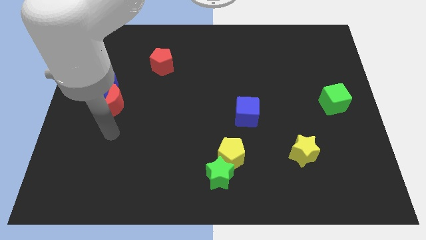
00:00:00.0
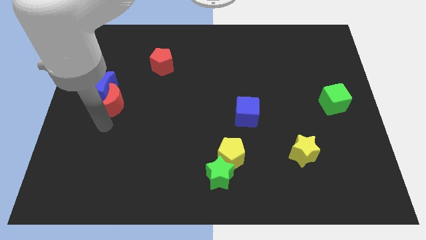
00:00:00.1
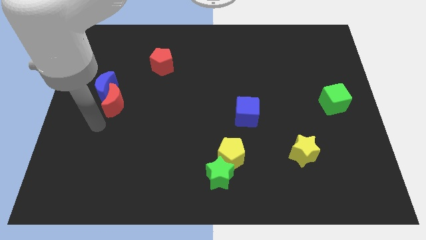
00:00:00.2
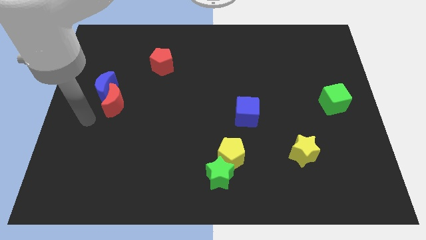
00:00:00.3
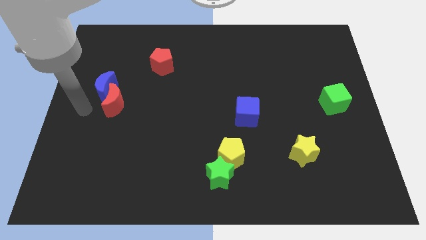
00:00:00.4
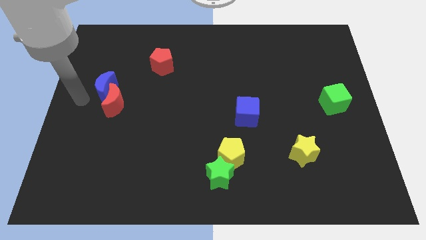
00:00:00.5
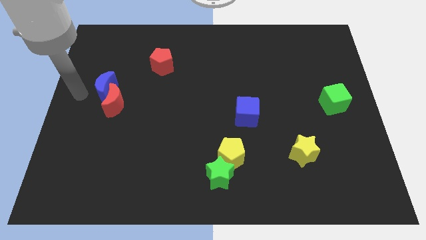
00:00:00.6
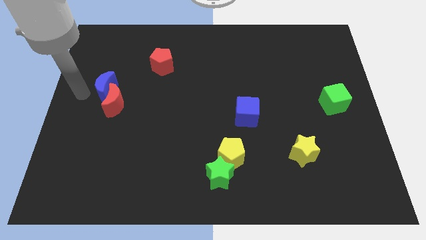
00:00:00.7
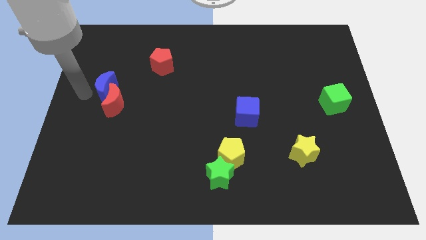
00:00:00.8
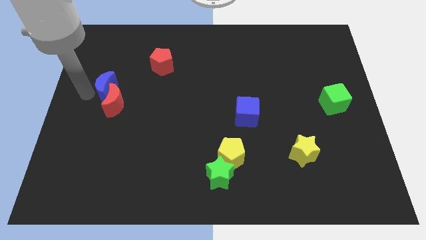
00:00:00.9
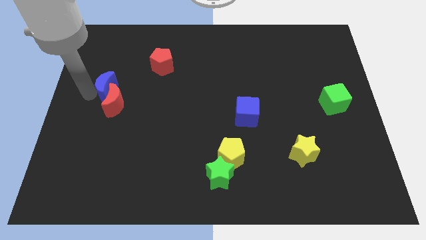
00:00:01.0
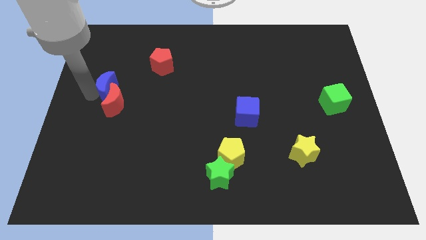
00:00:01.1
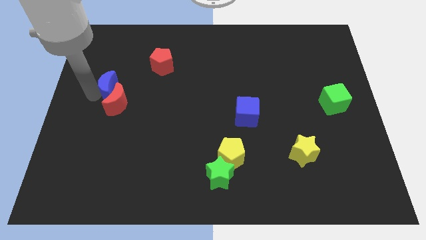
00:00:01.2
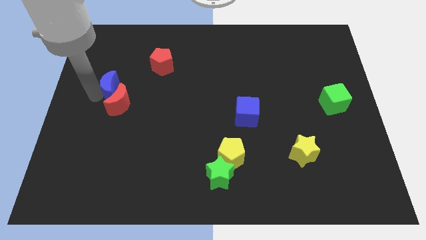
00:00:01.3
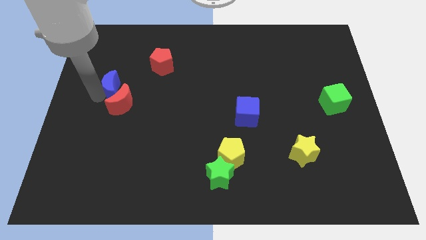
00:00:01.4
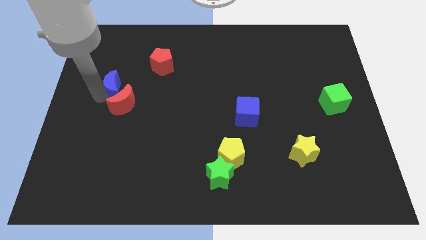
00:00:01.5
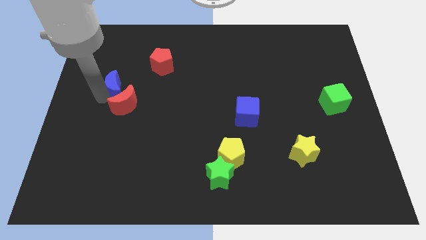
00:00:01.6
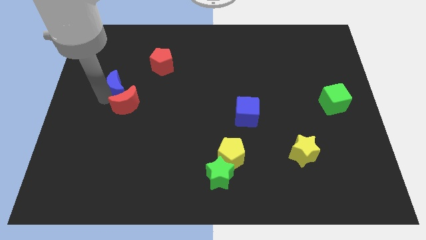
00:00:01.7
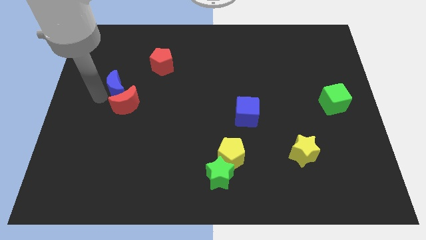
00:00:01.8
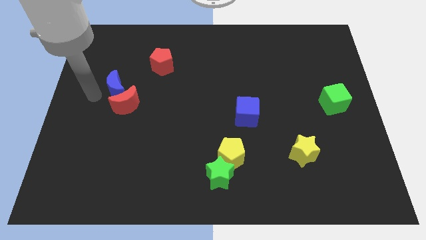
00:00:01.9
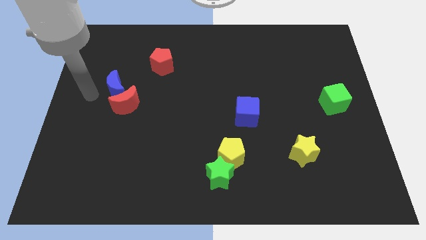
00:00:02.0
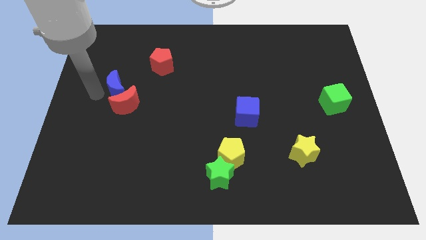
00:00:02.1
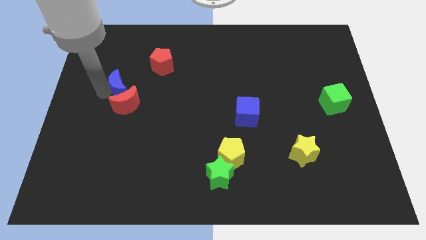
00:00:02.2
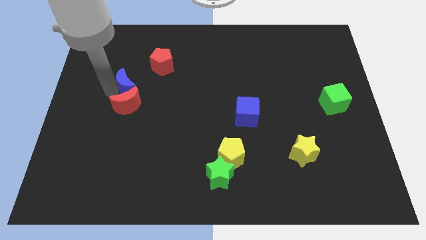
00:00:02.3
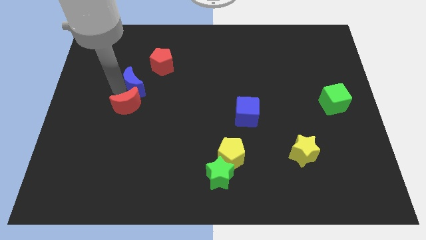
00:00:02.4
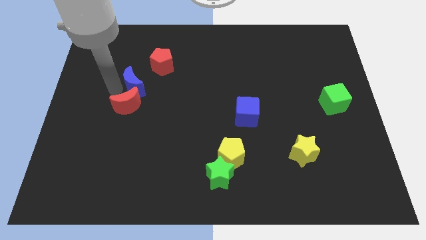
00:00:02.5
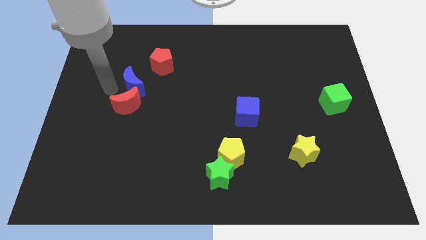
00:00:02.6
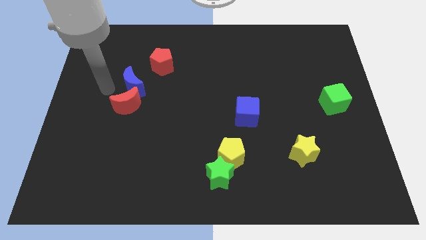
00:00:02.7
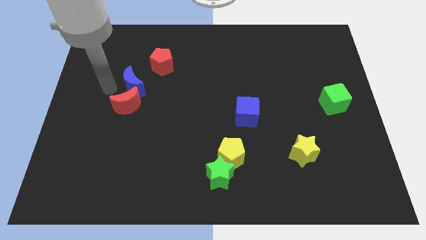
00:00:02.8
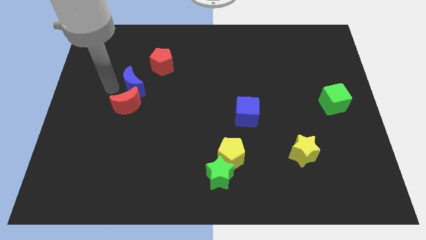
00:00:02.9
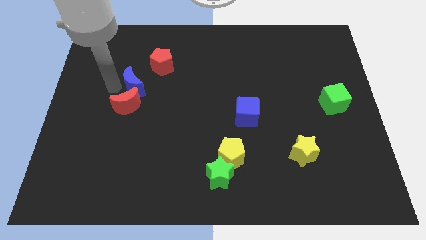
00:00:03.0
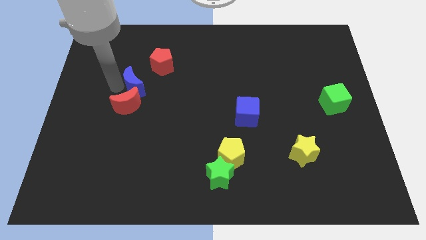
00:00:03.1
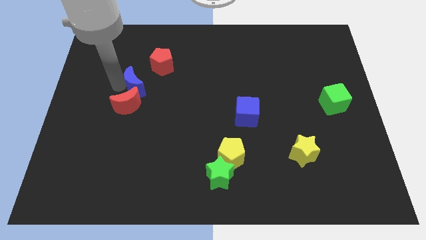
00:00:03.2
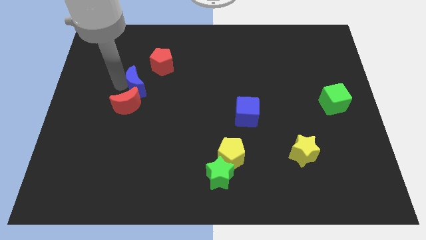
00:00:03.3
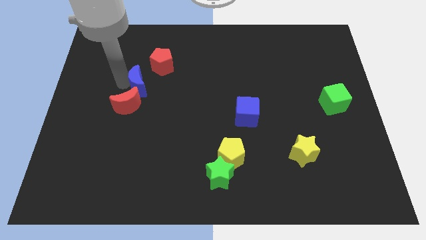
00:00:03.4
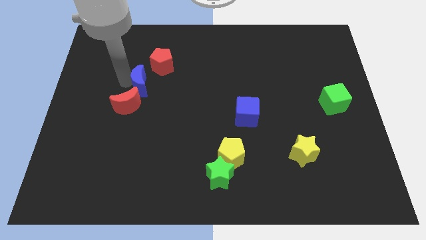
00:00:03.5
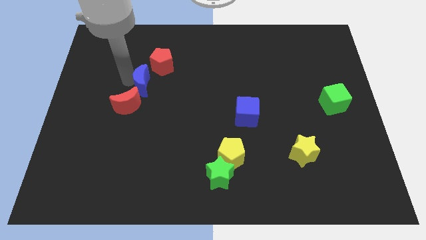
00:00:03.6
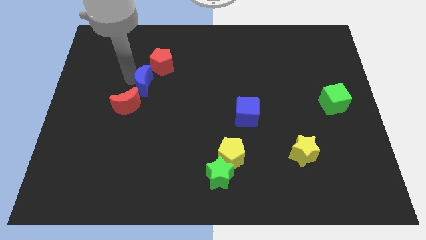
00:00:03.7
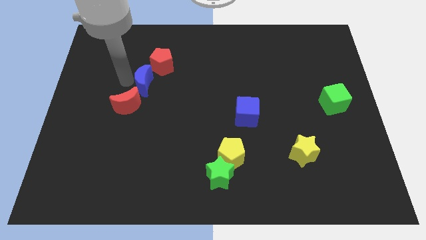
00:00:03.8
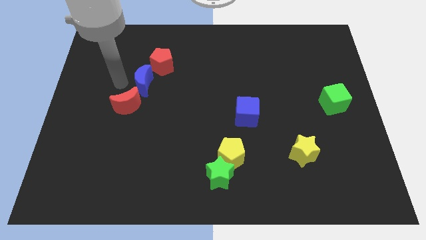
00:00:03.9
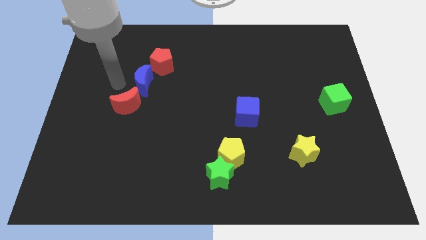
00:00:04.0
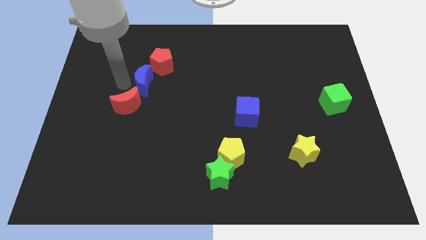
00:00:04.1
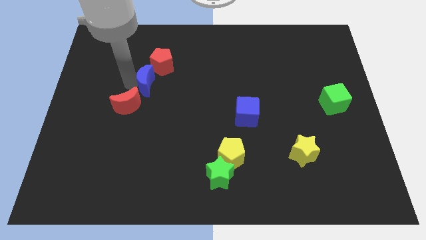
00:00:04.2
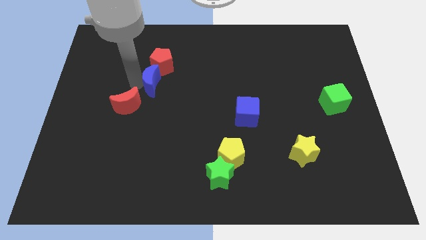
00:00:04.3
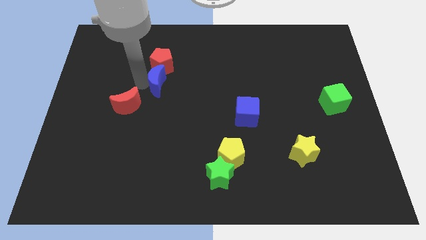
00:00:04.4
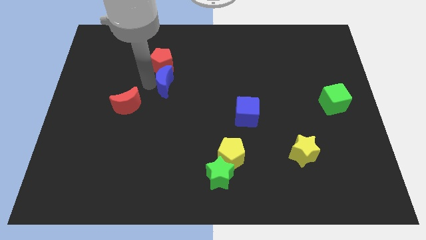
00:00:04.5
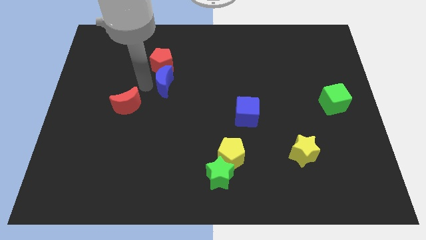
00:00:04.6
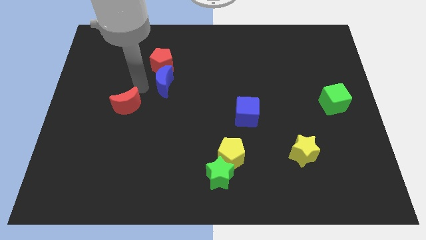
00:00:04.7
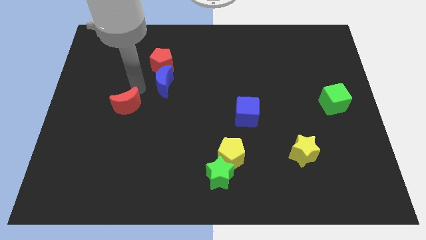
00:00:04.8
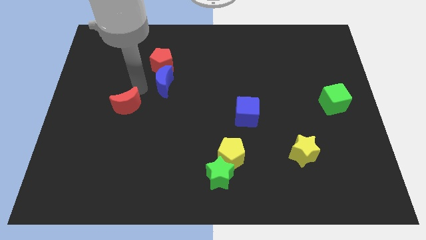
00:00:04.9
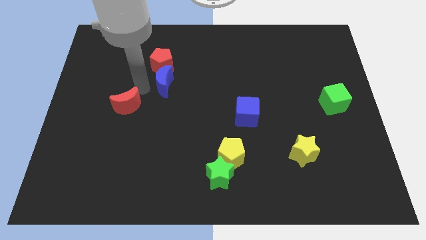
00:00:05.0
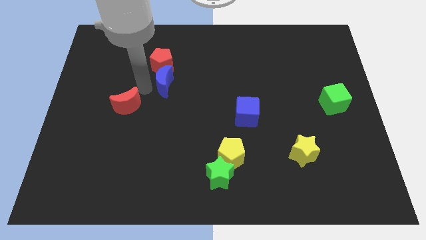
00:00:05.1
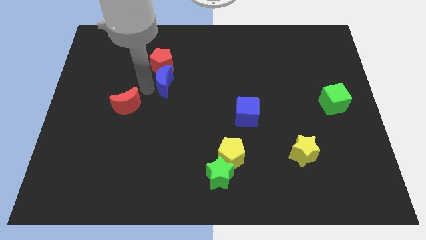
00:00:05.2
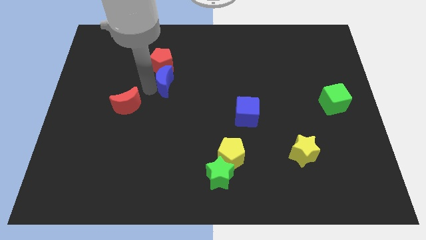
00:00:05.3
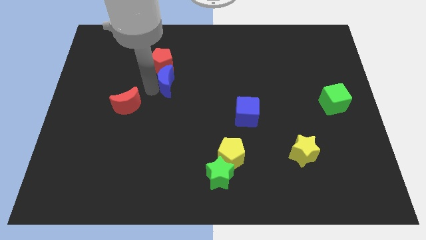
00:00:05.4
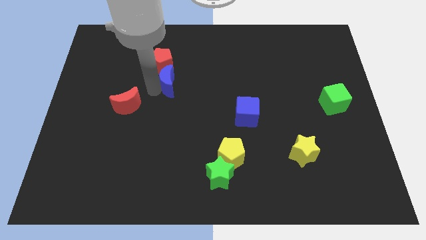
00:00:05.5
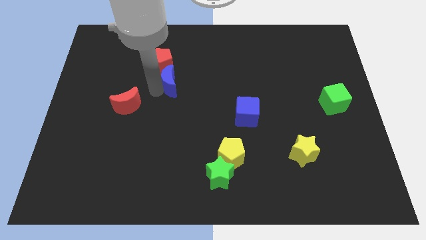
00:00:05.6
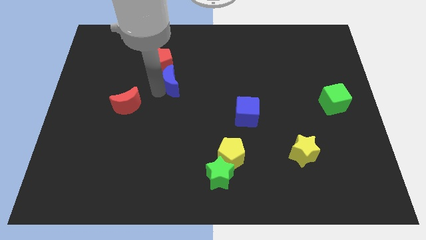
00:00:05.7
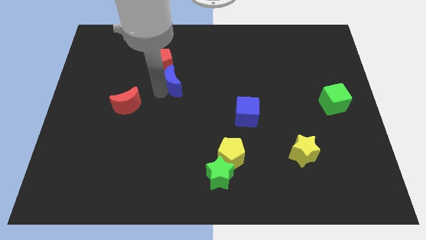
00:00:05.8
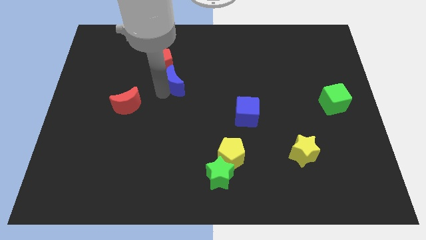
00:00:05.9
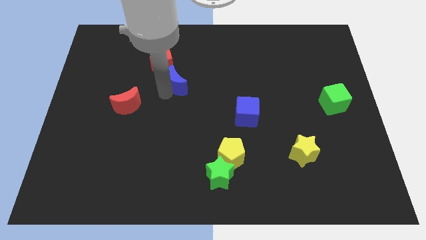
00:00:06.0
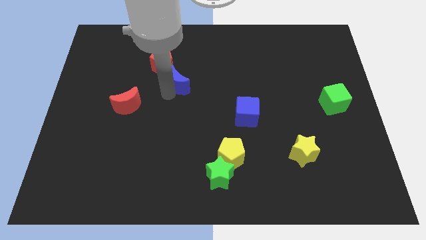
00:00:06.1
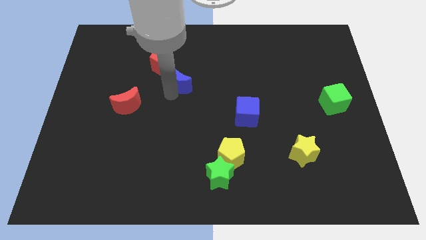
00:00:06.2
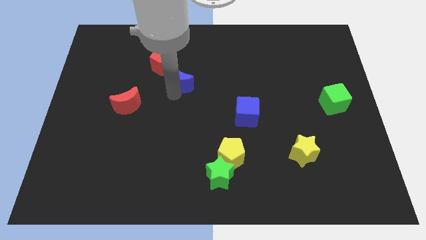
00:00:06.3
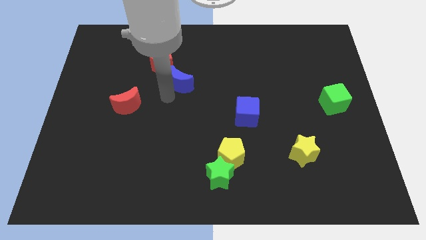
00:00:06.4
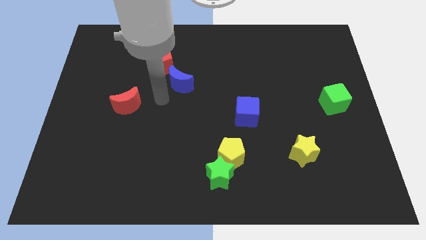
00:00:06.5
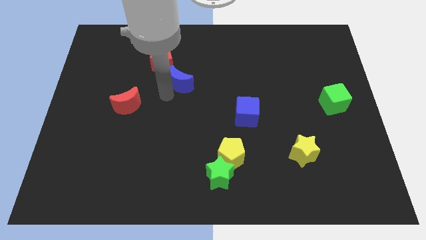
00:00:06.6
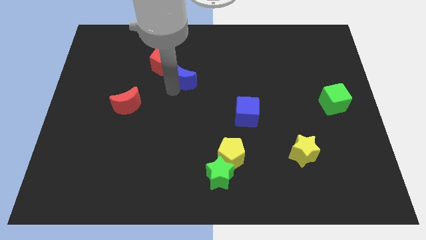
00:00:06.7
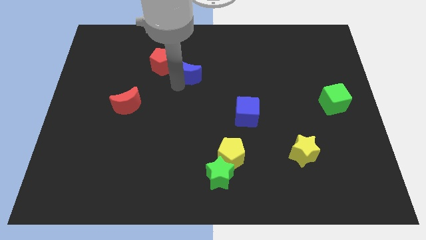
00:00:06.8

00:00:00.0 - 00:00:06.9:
move the blue moon right of the red pentagon

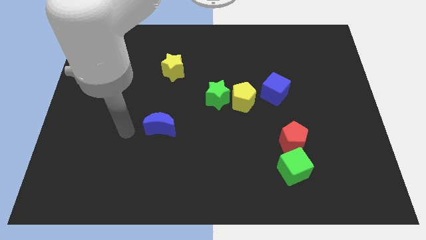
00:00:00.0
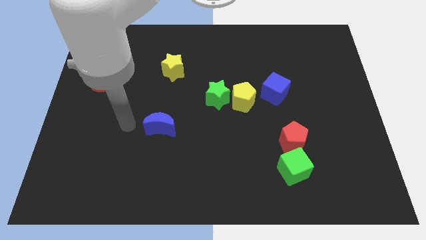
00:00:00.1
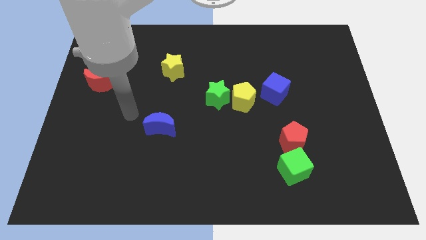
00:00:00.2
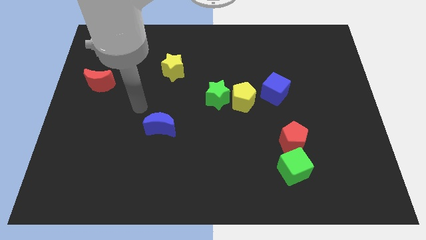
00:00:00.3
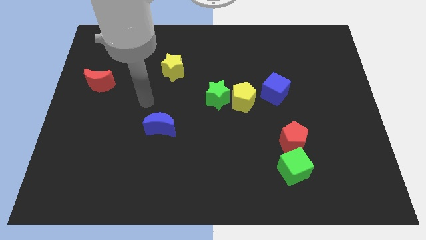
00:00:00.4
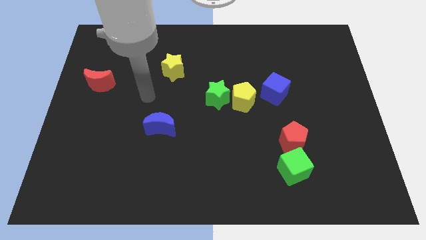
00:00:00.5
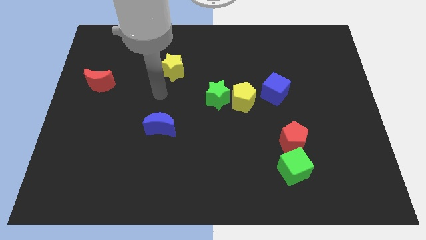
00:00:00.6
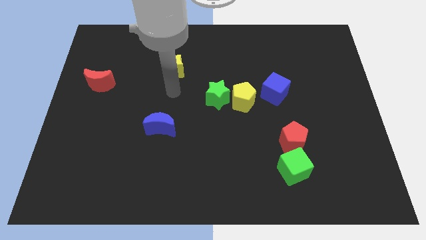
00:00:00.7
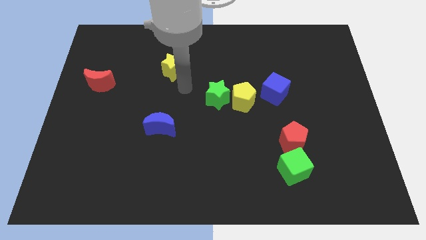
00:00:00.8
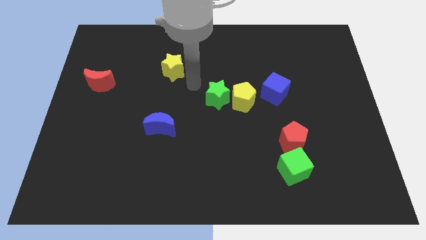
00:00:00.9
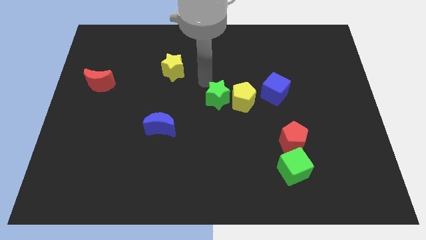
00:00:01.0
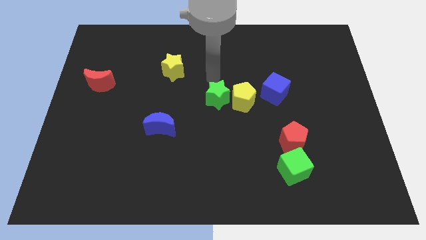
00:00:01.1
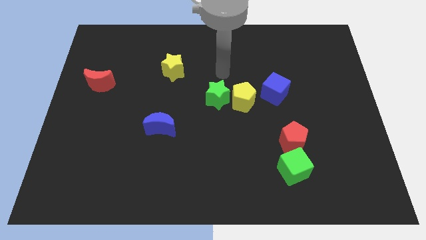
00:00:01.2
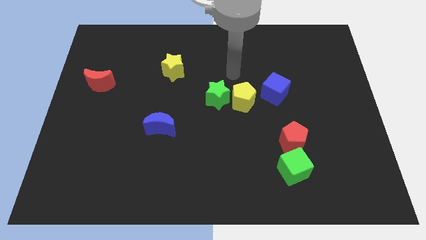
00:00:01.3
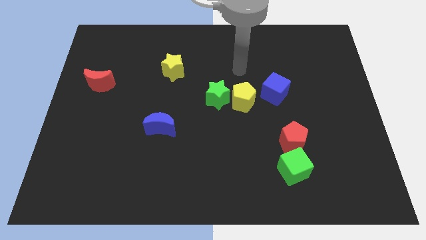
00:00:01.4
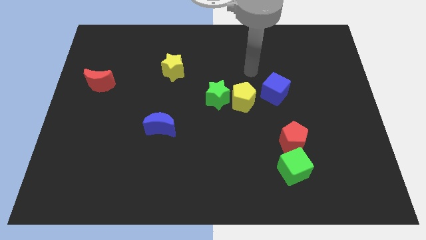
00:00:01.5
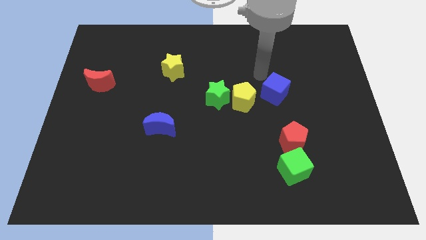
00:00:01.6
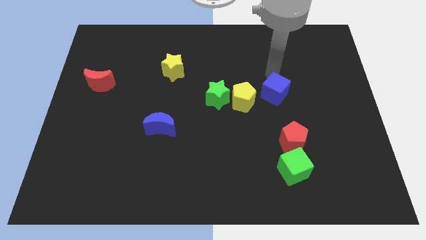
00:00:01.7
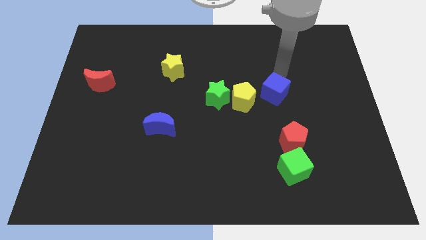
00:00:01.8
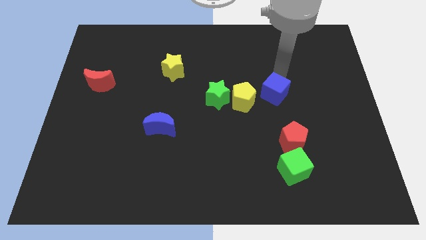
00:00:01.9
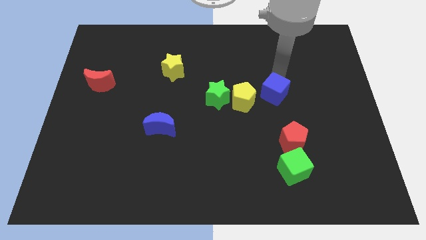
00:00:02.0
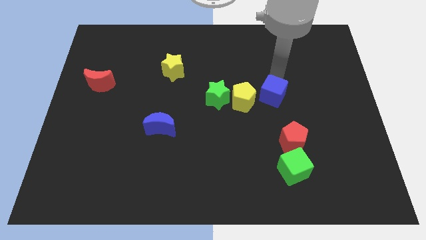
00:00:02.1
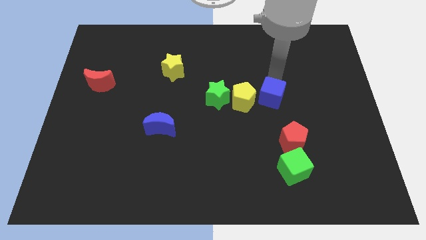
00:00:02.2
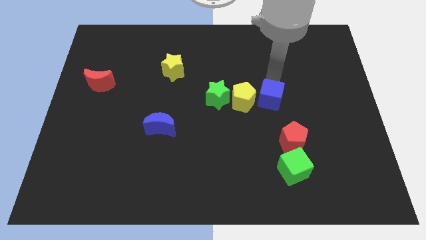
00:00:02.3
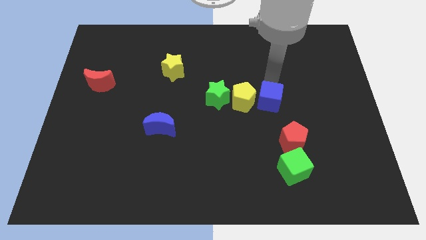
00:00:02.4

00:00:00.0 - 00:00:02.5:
slide the blue cube to the bottom right of the yellow pentagon
